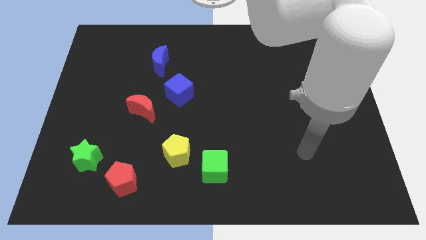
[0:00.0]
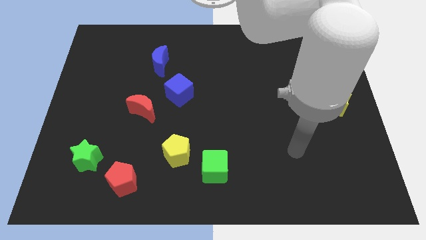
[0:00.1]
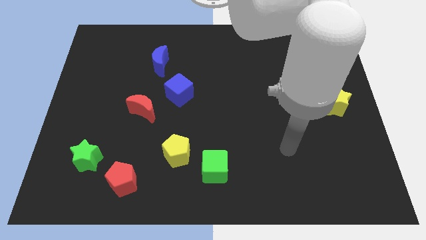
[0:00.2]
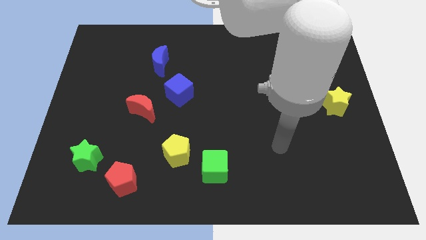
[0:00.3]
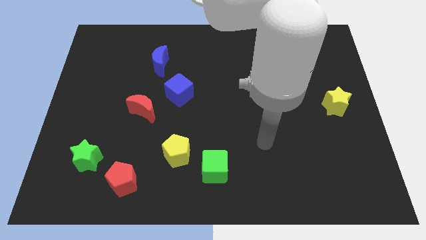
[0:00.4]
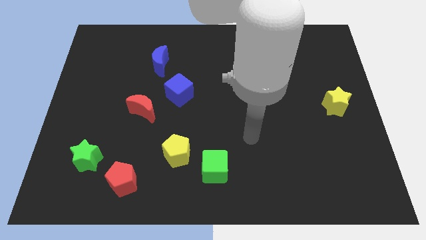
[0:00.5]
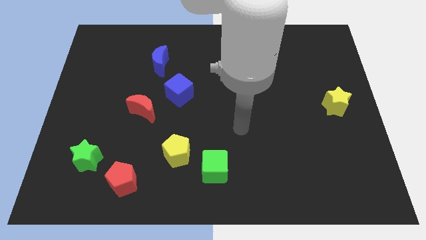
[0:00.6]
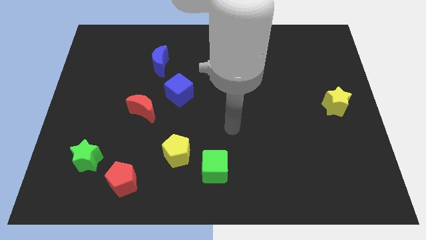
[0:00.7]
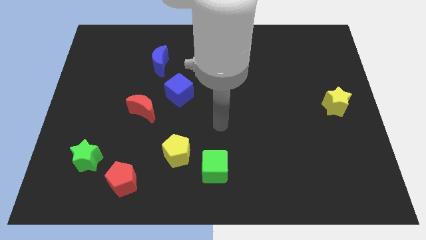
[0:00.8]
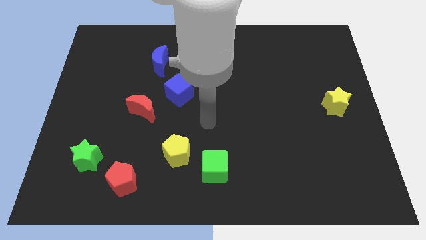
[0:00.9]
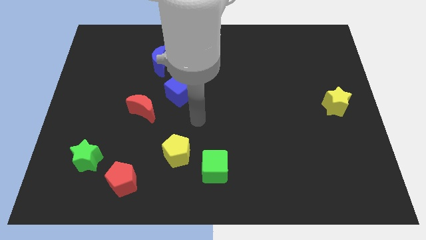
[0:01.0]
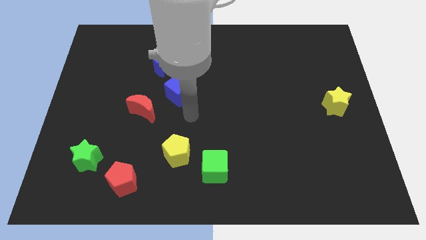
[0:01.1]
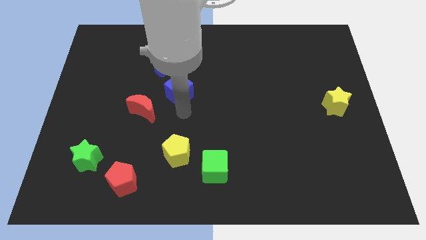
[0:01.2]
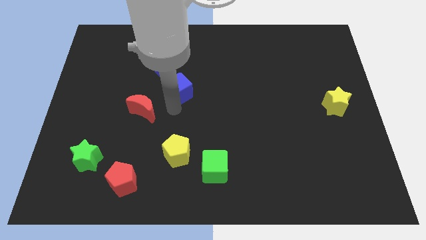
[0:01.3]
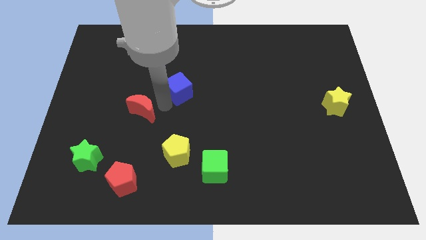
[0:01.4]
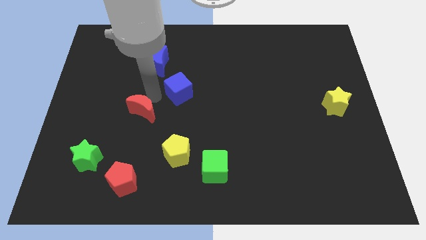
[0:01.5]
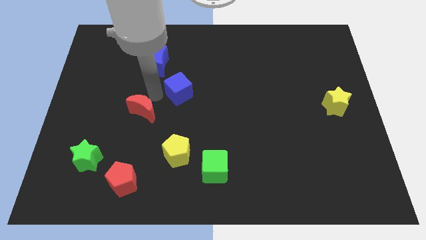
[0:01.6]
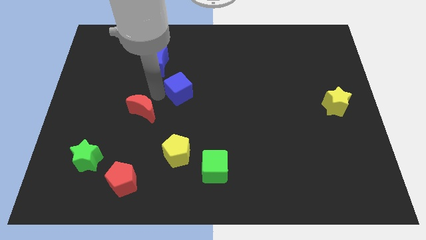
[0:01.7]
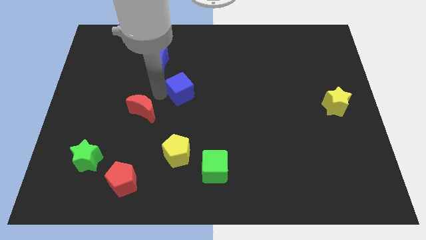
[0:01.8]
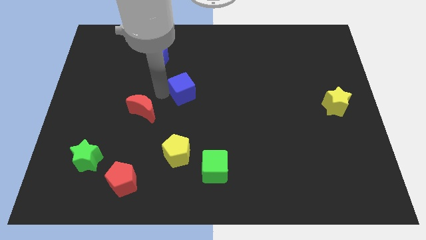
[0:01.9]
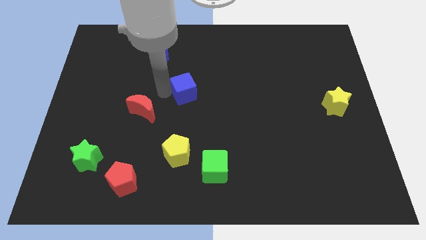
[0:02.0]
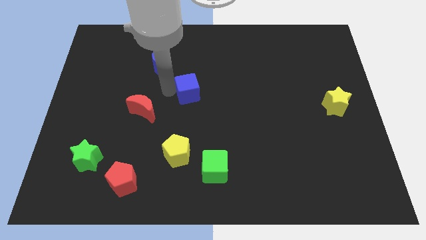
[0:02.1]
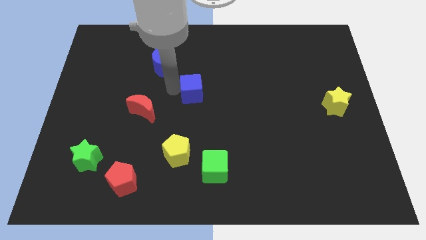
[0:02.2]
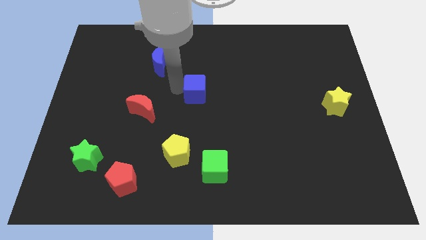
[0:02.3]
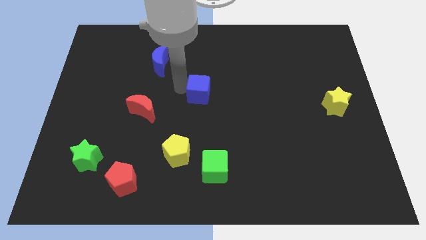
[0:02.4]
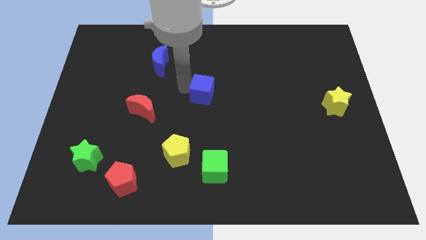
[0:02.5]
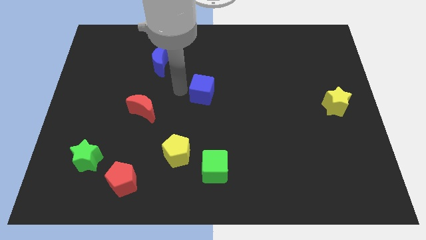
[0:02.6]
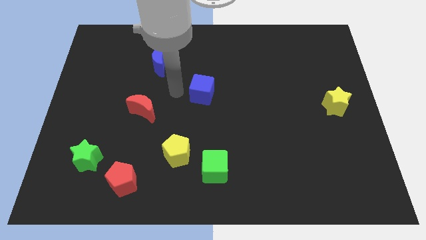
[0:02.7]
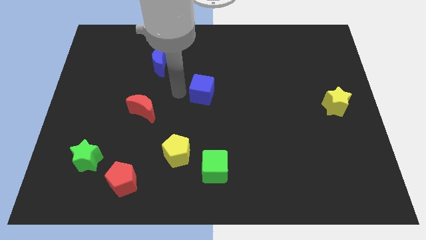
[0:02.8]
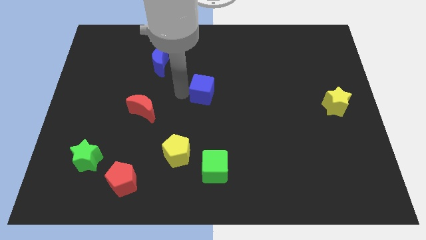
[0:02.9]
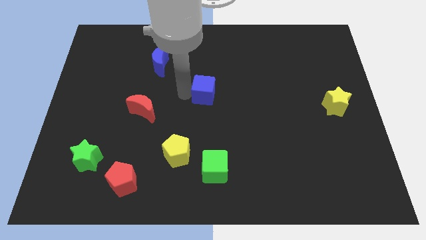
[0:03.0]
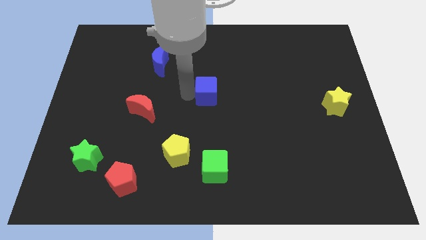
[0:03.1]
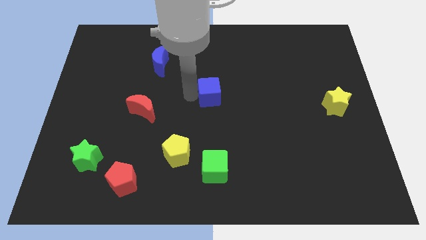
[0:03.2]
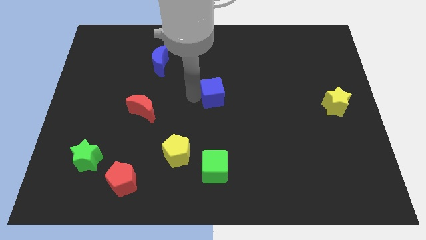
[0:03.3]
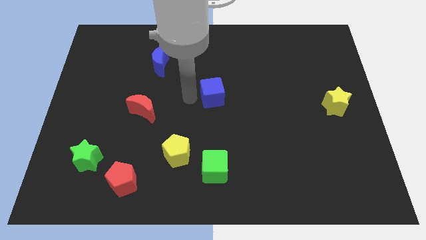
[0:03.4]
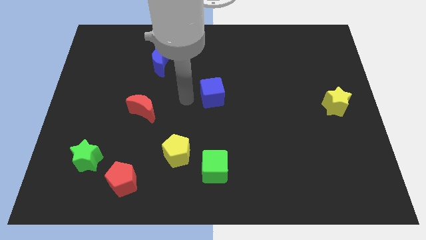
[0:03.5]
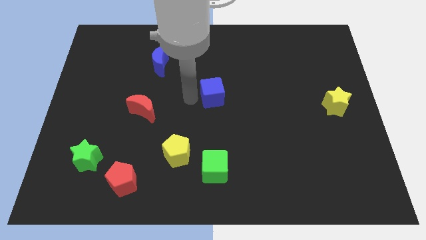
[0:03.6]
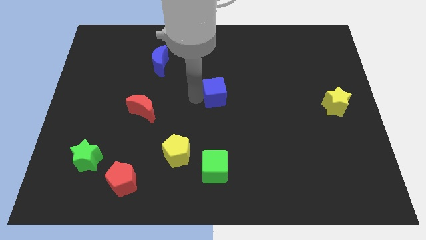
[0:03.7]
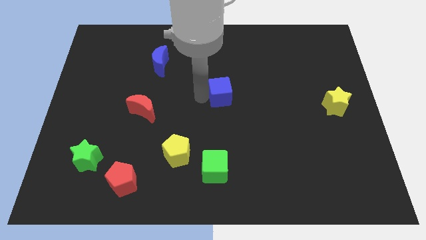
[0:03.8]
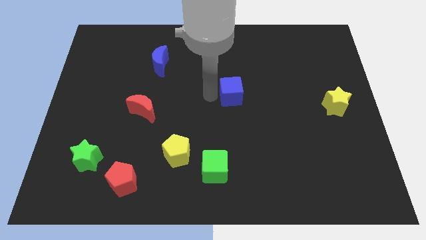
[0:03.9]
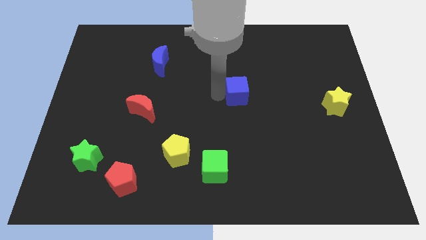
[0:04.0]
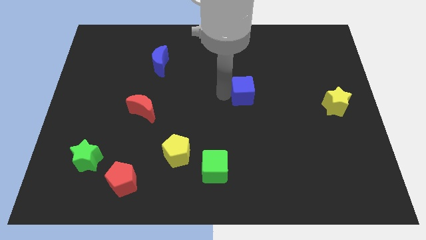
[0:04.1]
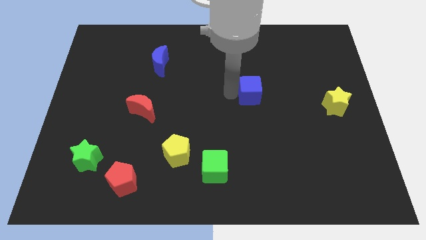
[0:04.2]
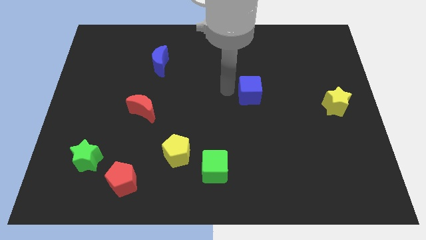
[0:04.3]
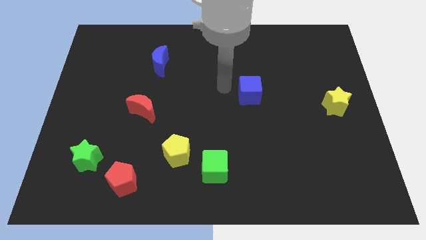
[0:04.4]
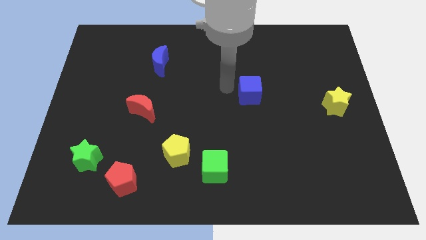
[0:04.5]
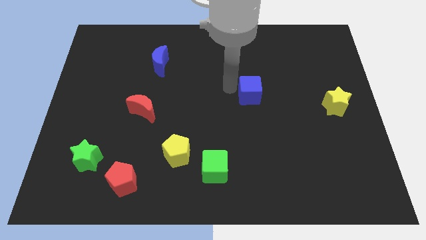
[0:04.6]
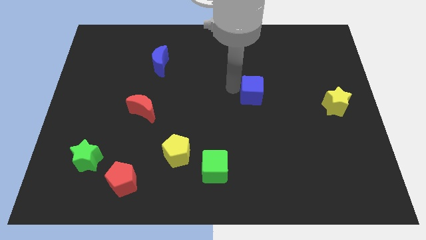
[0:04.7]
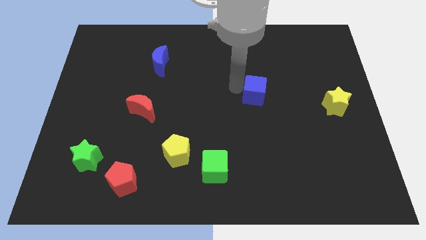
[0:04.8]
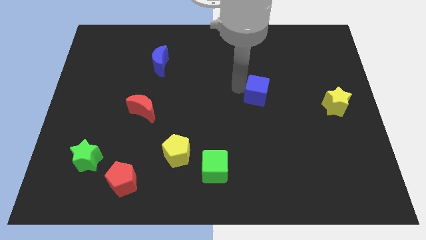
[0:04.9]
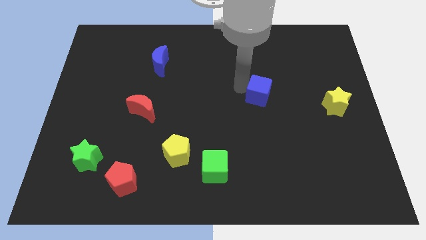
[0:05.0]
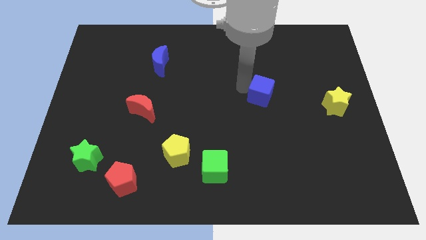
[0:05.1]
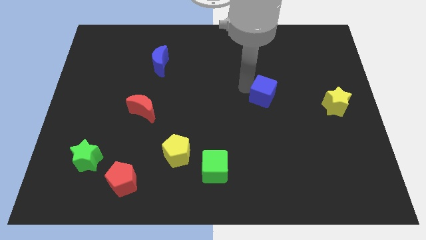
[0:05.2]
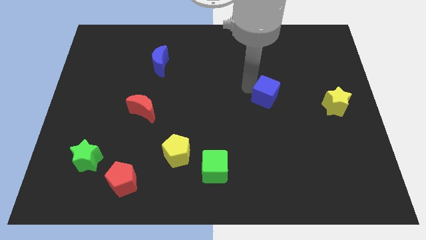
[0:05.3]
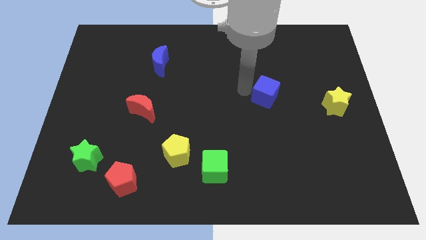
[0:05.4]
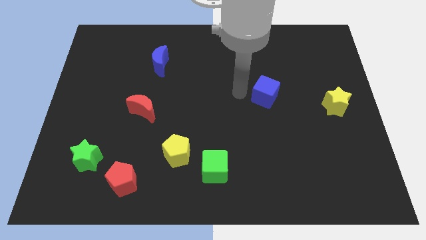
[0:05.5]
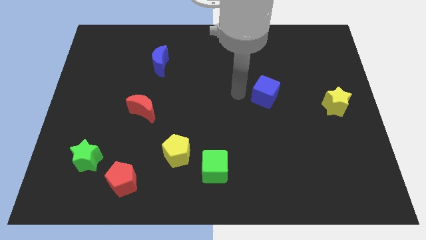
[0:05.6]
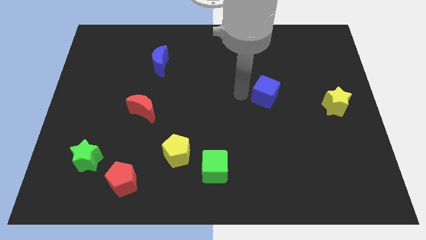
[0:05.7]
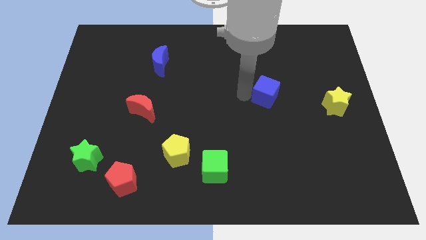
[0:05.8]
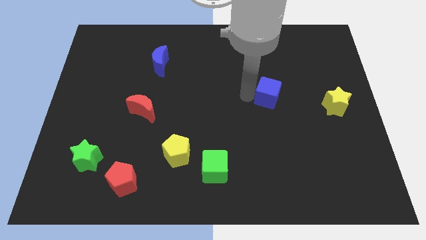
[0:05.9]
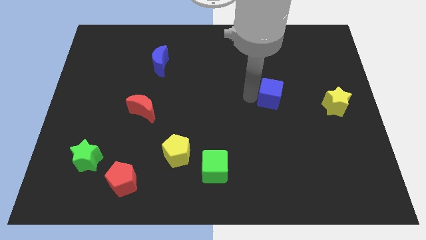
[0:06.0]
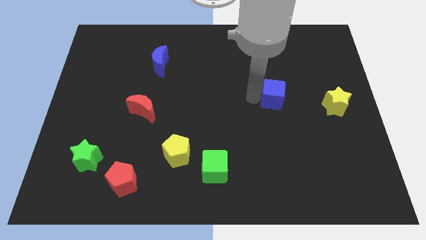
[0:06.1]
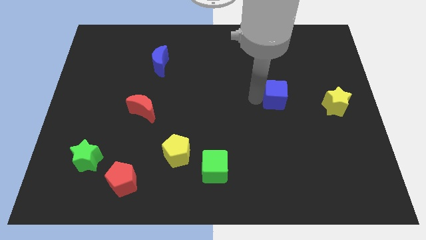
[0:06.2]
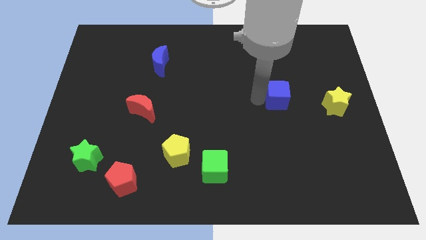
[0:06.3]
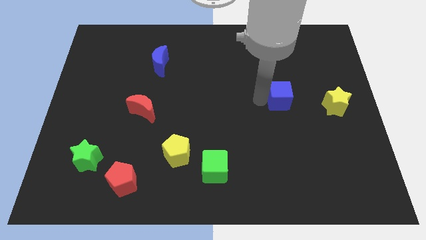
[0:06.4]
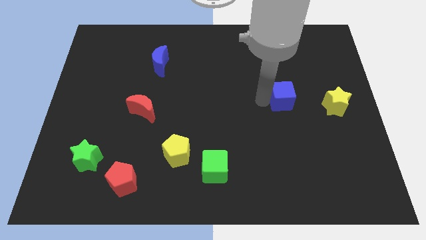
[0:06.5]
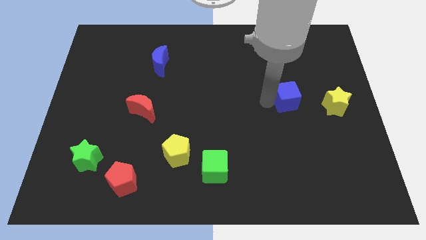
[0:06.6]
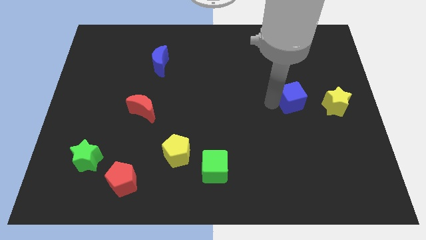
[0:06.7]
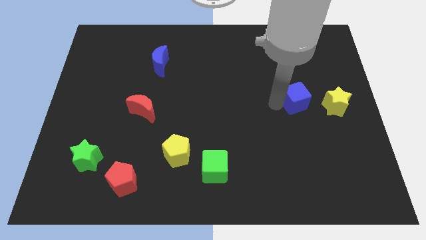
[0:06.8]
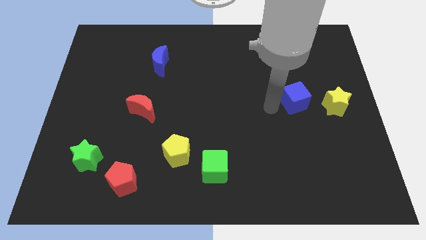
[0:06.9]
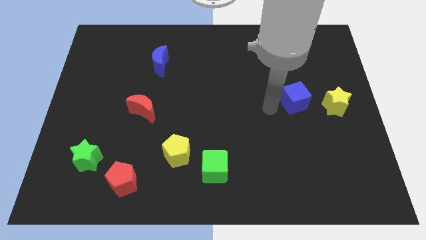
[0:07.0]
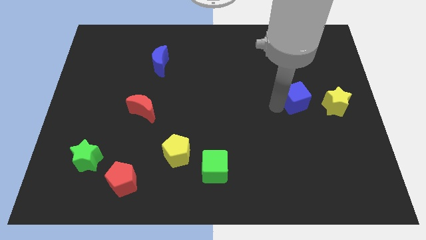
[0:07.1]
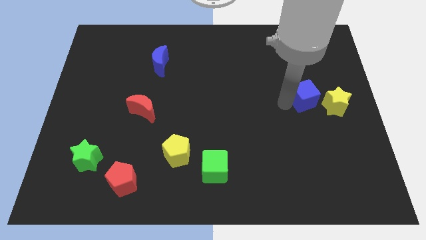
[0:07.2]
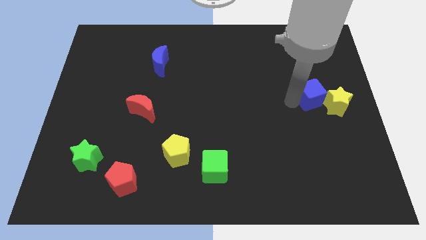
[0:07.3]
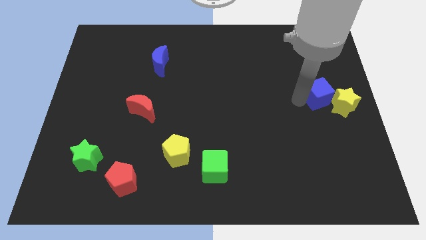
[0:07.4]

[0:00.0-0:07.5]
put the blue cube to the center right
